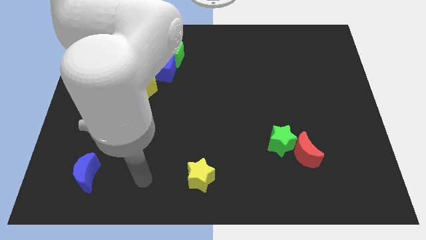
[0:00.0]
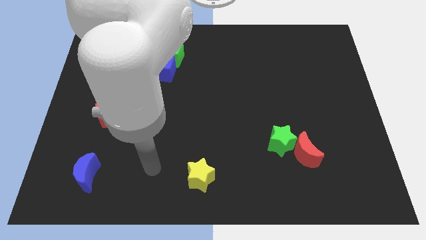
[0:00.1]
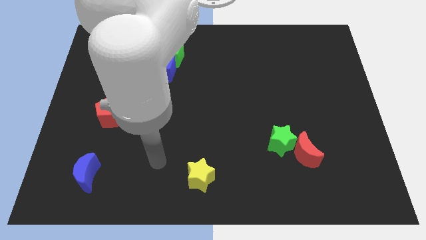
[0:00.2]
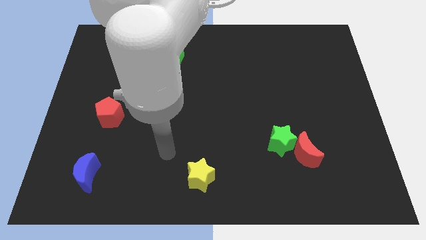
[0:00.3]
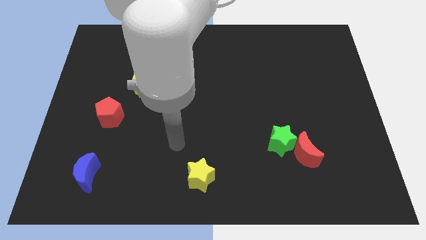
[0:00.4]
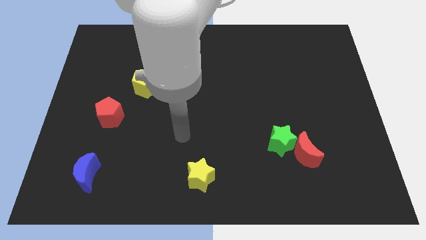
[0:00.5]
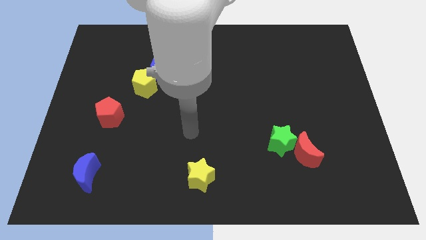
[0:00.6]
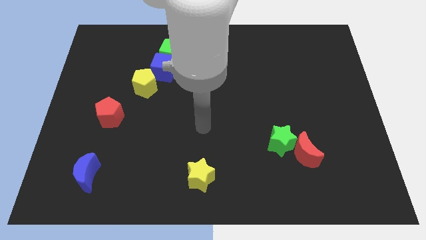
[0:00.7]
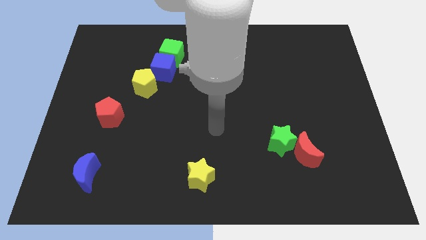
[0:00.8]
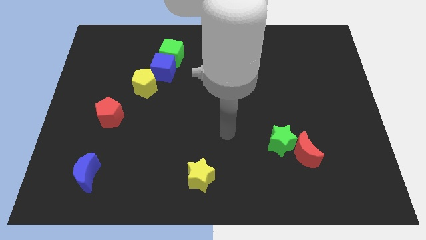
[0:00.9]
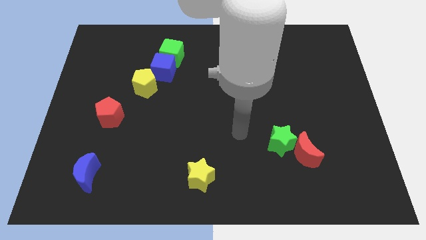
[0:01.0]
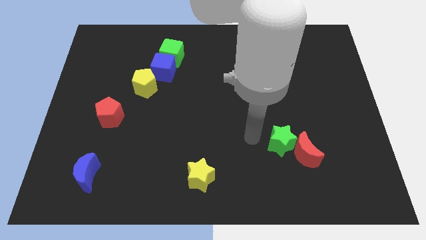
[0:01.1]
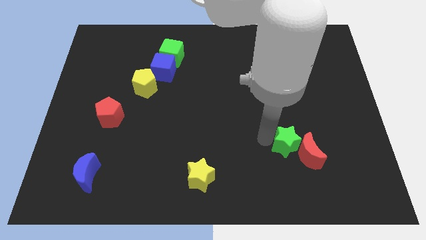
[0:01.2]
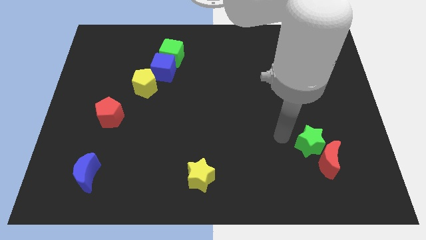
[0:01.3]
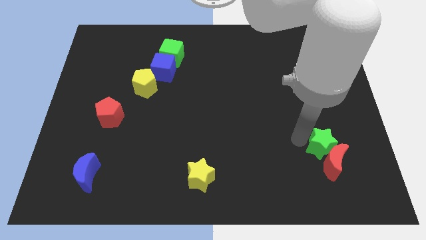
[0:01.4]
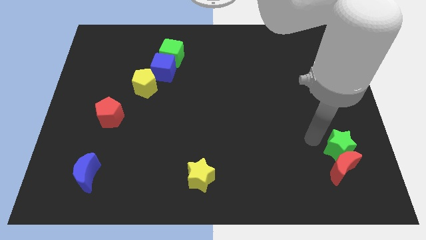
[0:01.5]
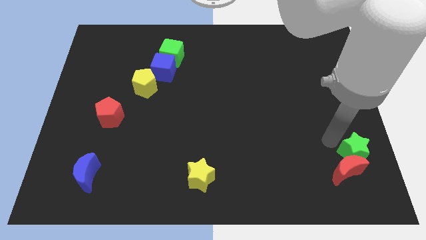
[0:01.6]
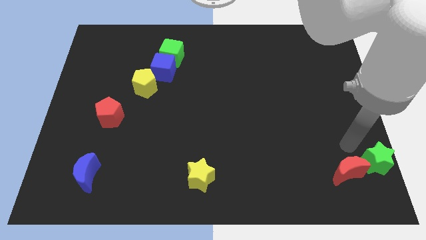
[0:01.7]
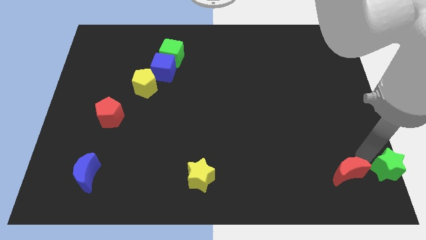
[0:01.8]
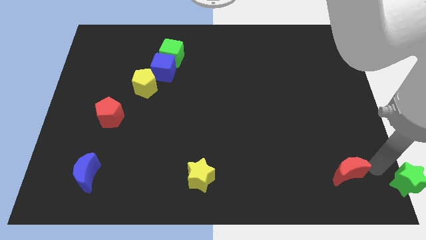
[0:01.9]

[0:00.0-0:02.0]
pull the red moon apart from the green star

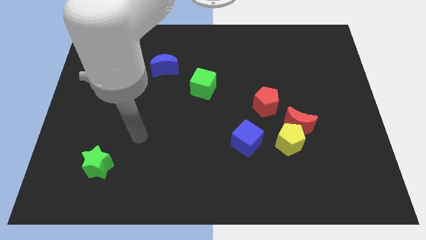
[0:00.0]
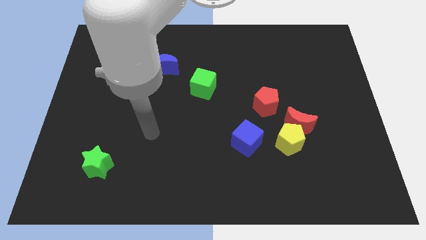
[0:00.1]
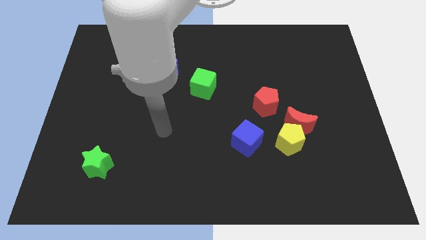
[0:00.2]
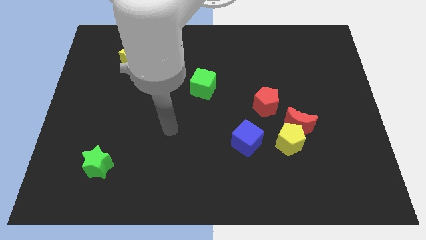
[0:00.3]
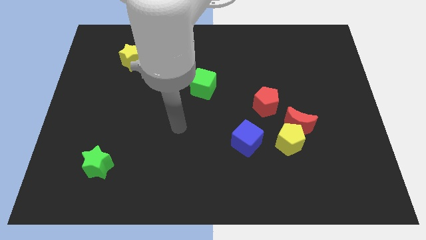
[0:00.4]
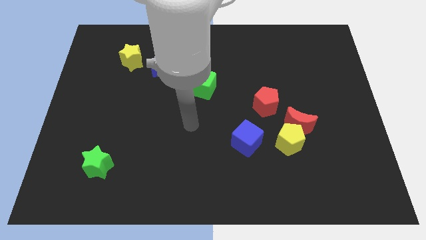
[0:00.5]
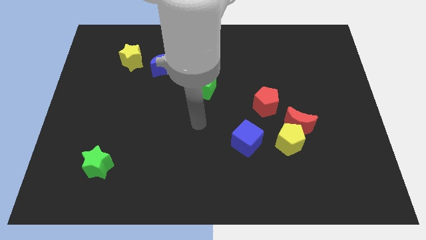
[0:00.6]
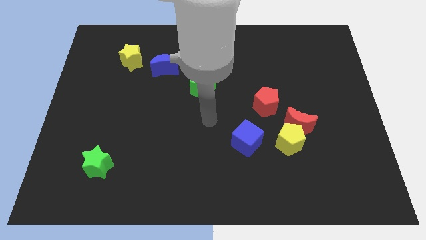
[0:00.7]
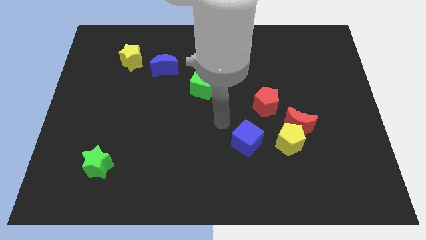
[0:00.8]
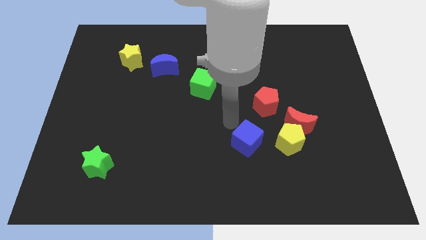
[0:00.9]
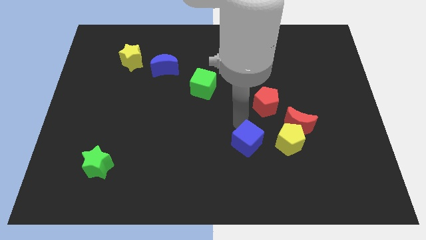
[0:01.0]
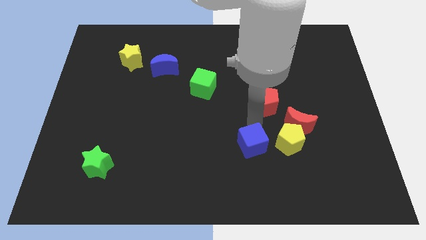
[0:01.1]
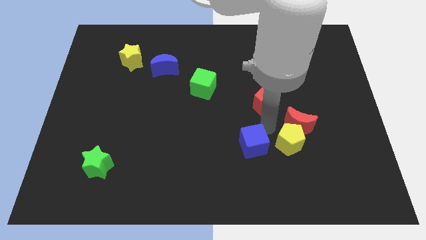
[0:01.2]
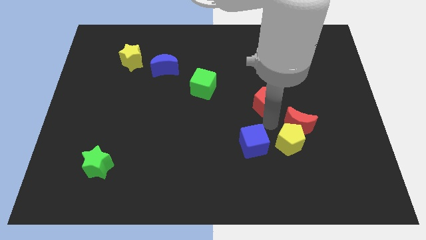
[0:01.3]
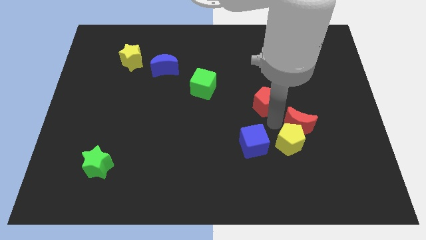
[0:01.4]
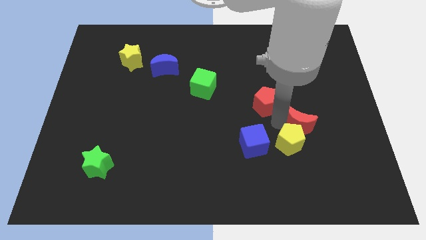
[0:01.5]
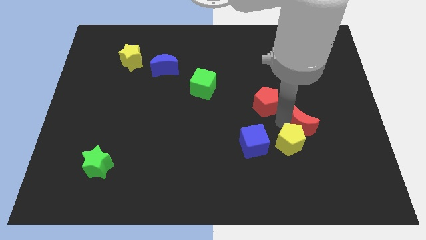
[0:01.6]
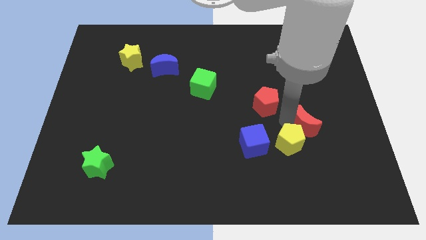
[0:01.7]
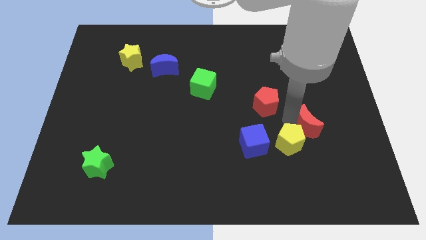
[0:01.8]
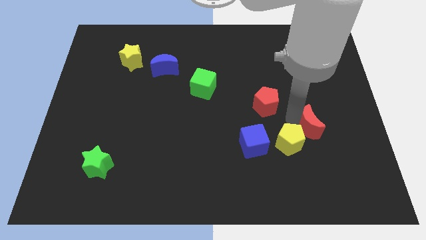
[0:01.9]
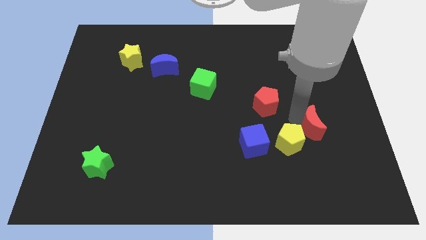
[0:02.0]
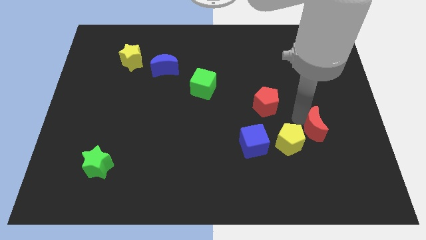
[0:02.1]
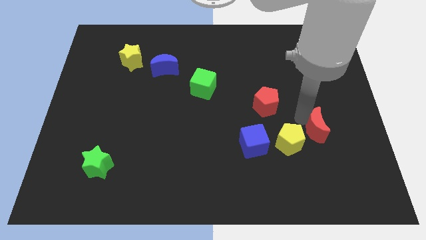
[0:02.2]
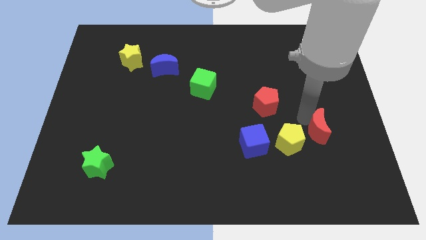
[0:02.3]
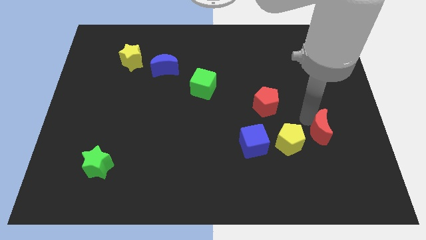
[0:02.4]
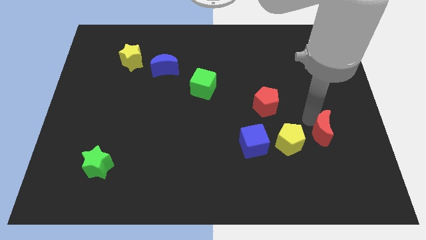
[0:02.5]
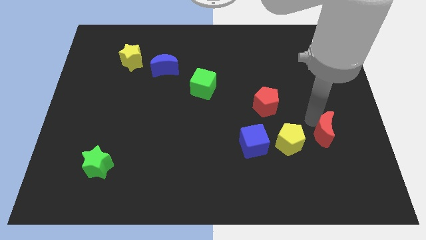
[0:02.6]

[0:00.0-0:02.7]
separate the red moon from the yellow pentagon and red pentagon

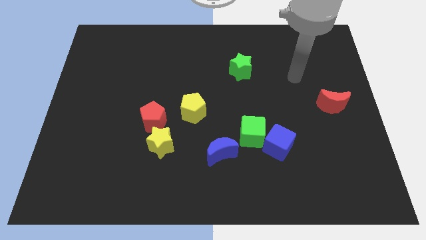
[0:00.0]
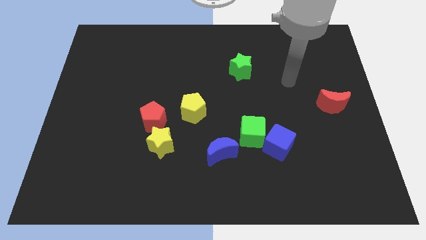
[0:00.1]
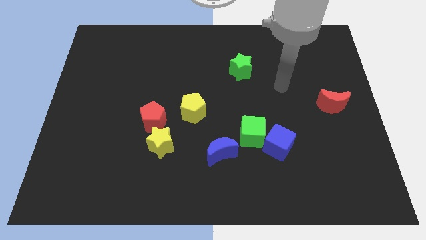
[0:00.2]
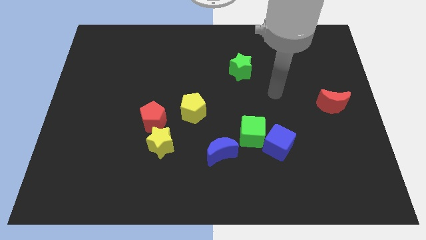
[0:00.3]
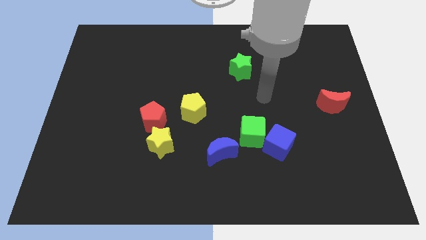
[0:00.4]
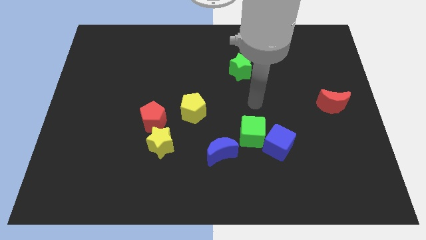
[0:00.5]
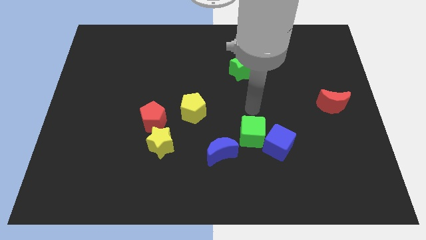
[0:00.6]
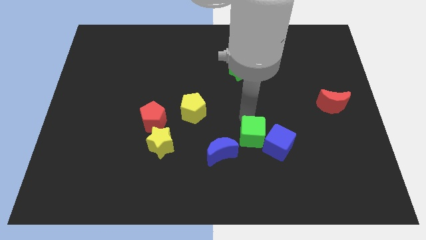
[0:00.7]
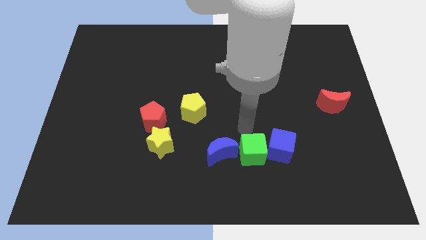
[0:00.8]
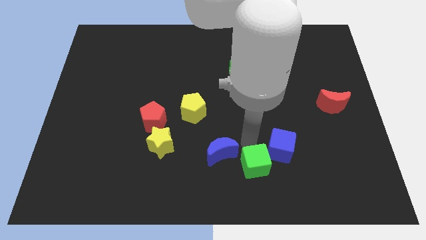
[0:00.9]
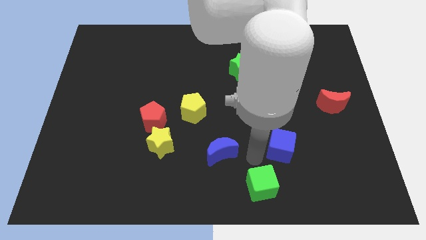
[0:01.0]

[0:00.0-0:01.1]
separate the blue cube from the green cube

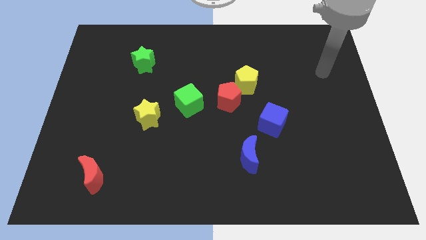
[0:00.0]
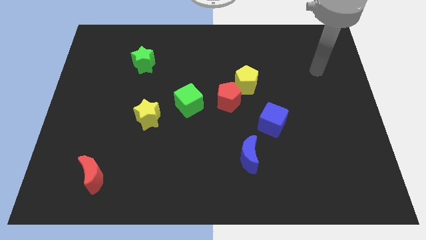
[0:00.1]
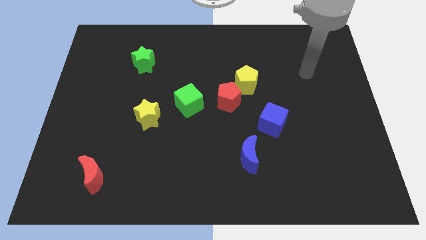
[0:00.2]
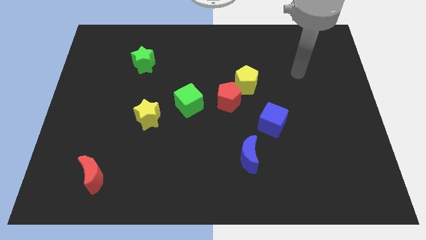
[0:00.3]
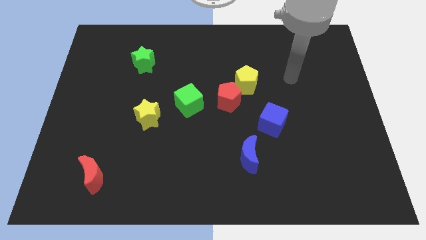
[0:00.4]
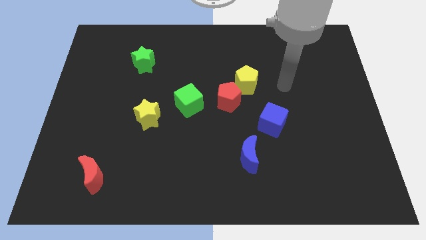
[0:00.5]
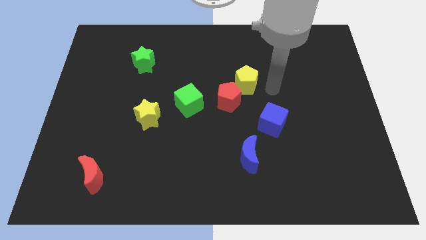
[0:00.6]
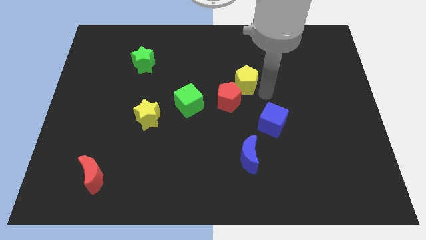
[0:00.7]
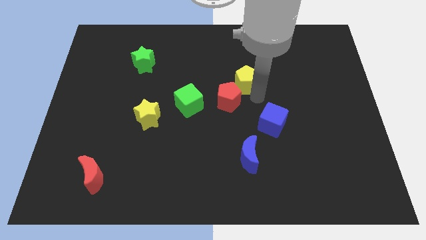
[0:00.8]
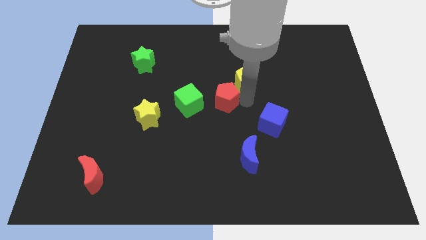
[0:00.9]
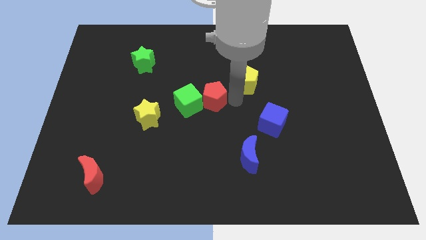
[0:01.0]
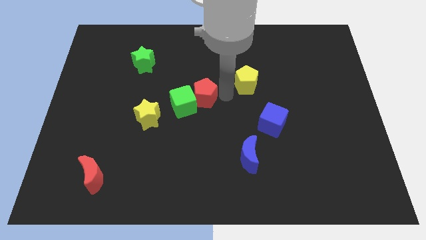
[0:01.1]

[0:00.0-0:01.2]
move the yellow pentagon away from the red pentagon

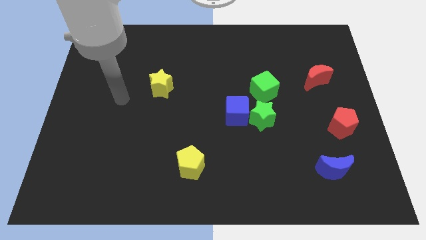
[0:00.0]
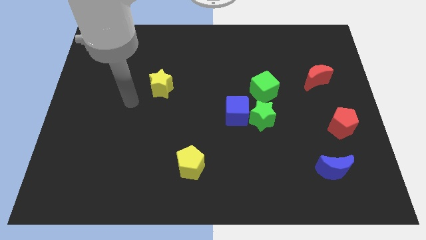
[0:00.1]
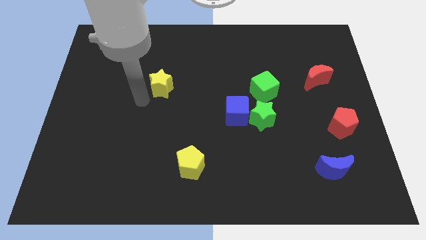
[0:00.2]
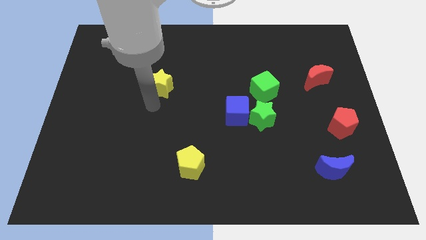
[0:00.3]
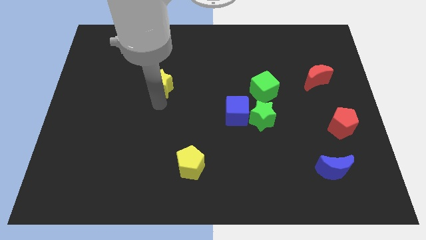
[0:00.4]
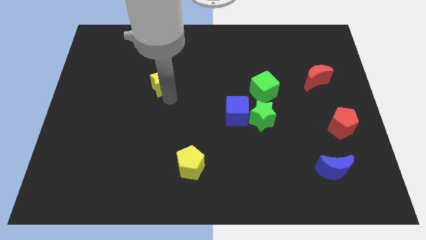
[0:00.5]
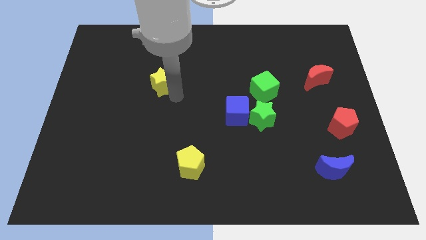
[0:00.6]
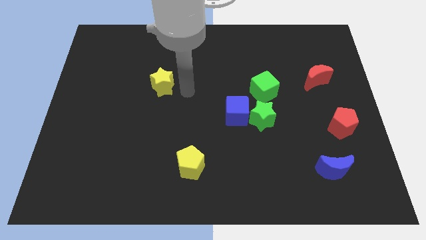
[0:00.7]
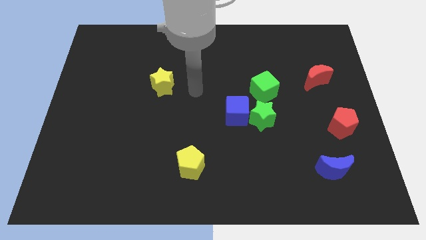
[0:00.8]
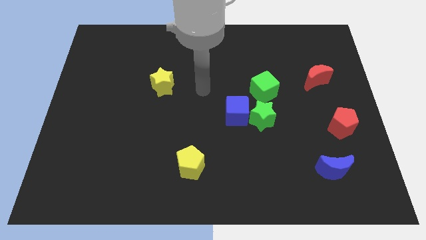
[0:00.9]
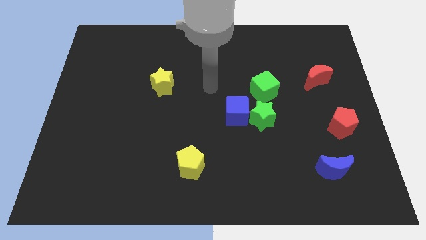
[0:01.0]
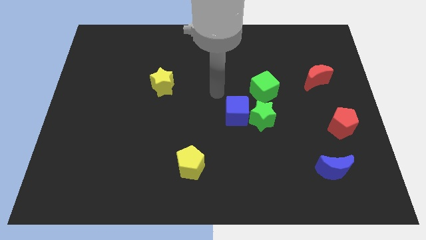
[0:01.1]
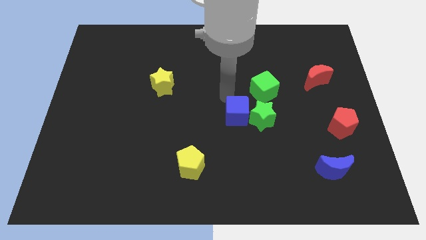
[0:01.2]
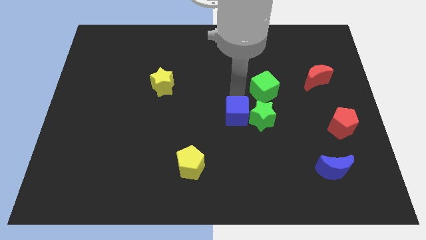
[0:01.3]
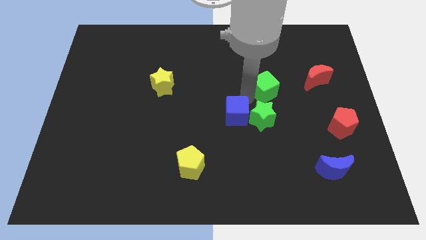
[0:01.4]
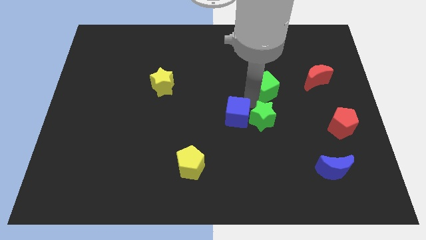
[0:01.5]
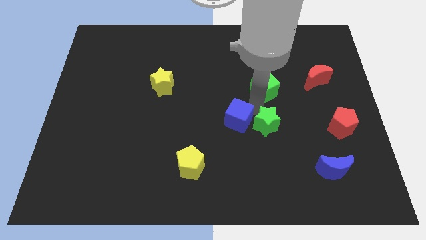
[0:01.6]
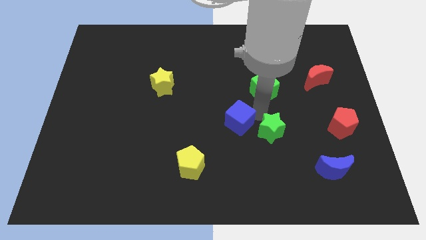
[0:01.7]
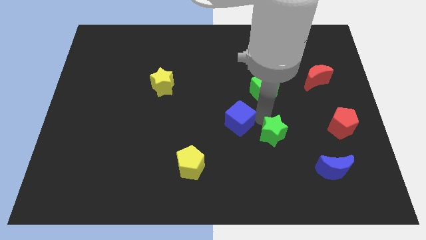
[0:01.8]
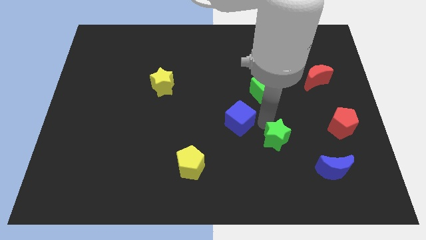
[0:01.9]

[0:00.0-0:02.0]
separate the green star from the blue cube and green cube

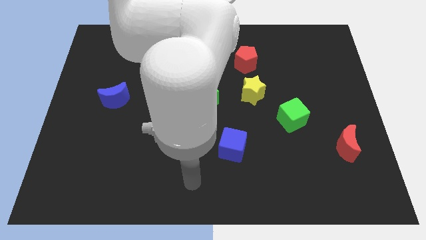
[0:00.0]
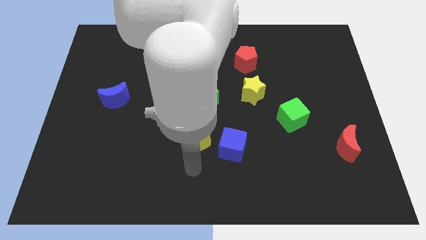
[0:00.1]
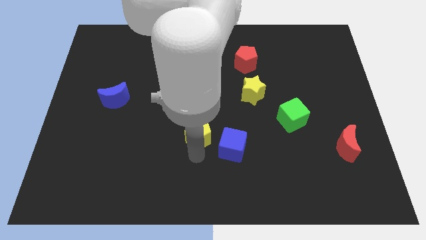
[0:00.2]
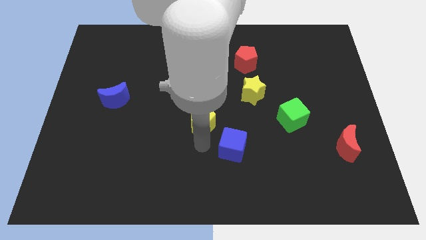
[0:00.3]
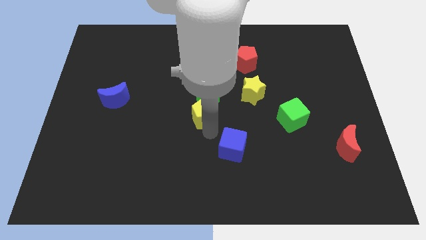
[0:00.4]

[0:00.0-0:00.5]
move the blue cube away from the yellow pentagon
